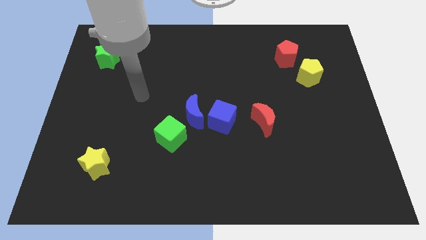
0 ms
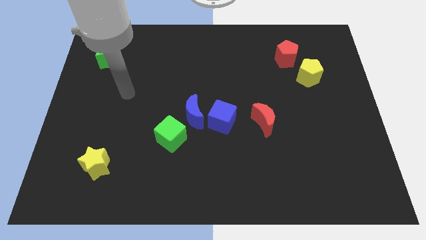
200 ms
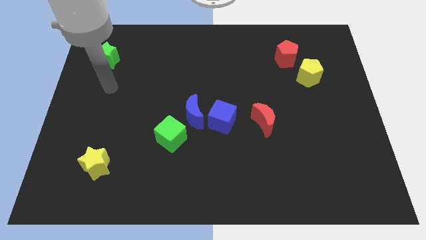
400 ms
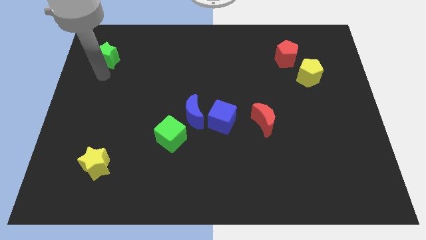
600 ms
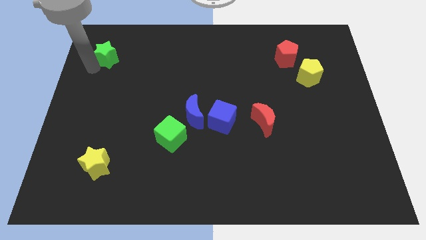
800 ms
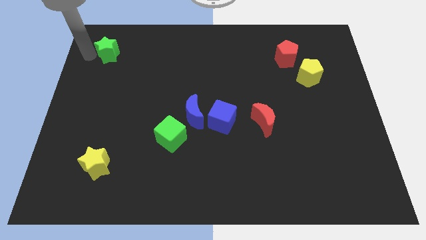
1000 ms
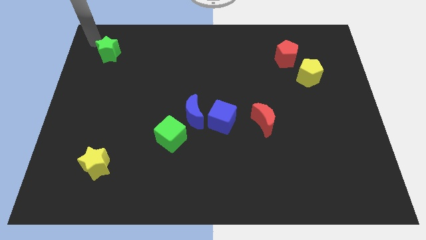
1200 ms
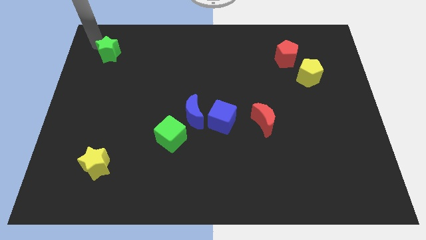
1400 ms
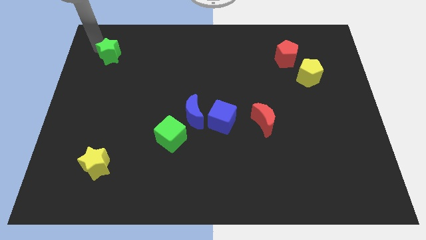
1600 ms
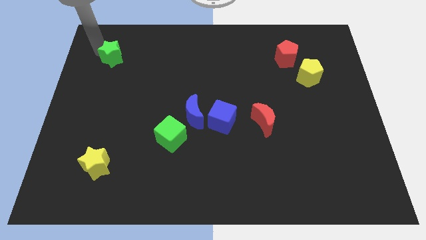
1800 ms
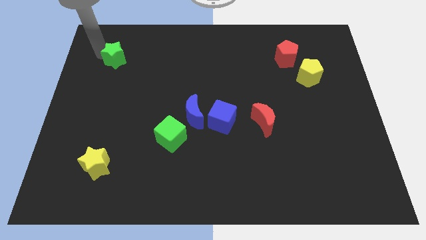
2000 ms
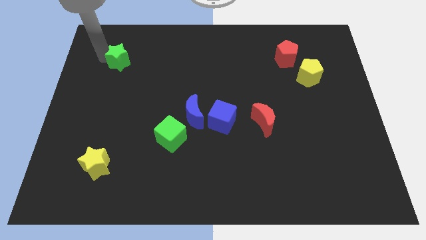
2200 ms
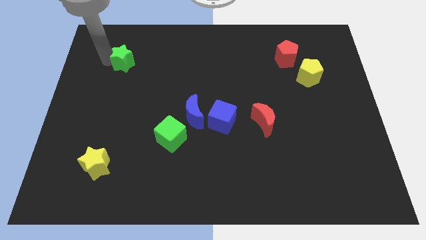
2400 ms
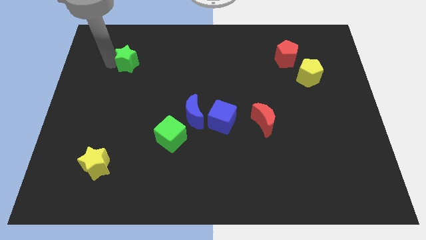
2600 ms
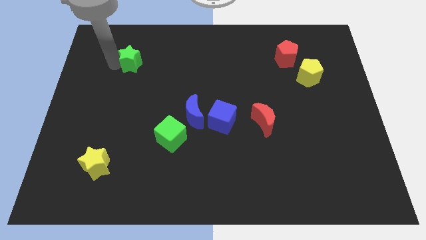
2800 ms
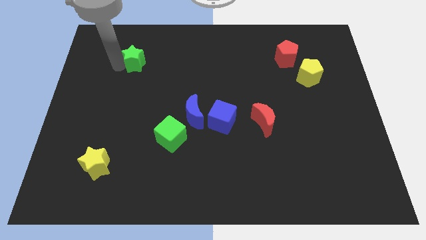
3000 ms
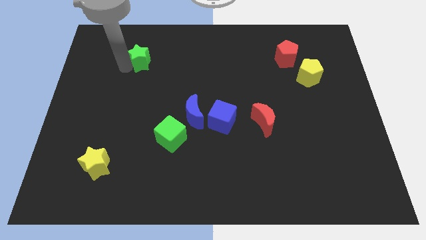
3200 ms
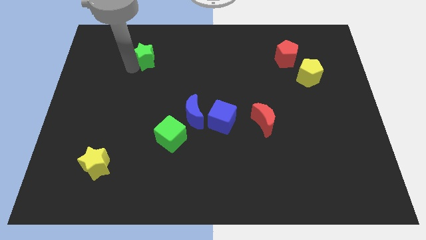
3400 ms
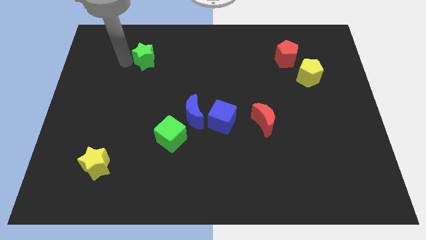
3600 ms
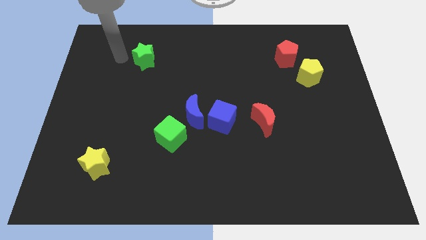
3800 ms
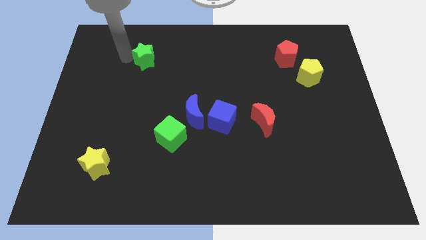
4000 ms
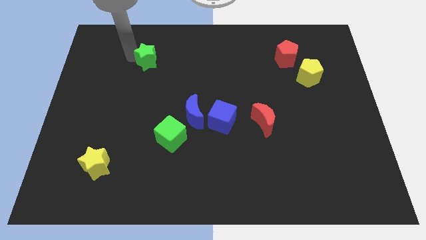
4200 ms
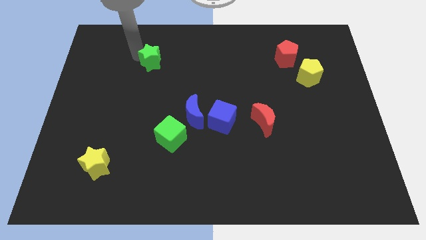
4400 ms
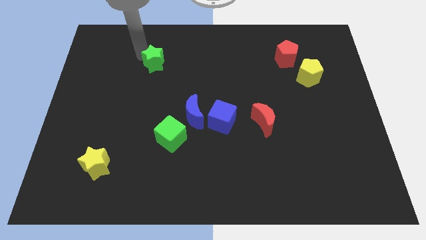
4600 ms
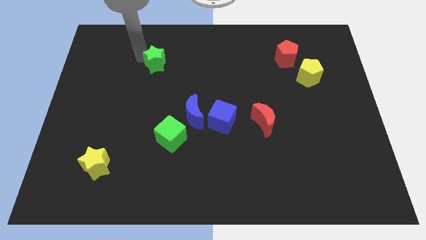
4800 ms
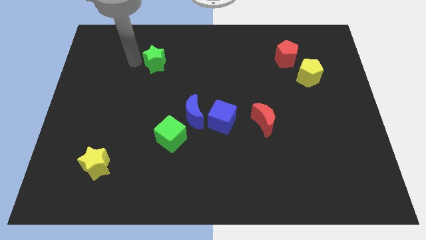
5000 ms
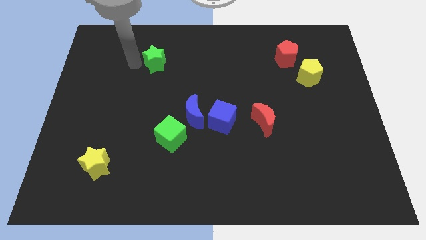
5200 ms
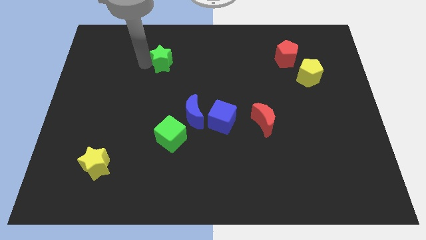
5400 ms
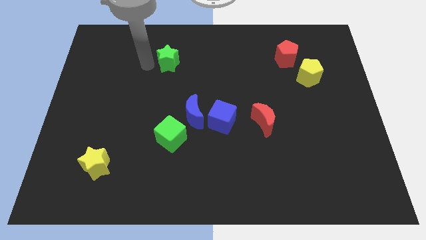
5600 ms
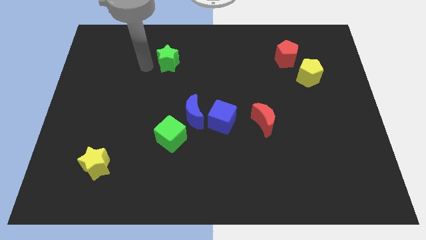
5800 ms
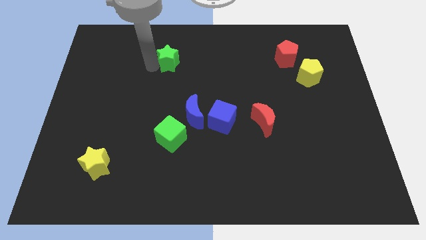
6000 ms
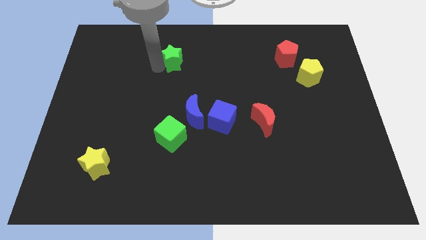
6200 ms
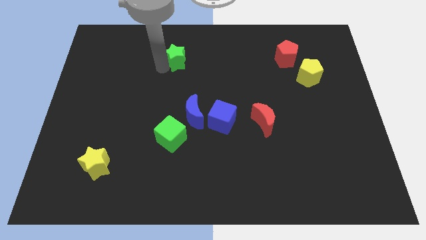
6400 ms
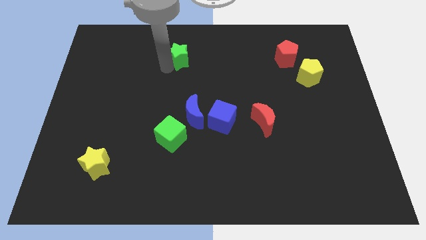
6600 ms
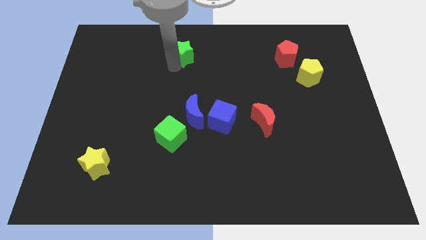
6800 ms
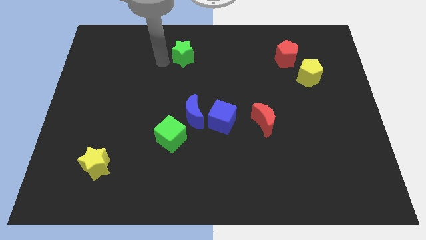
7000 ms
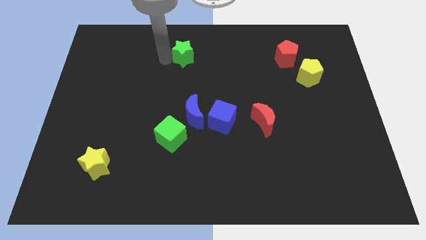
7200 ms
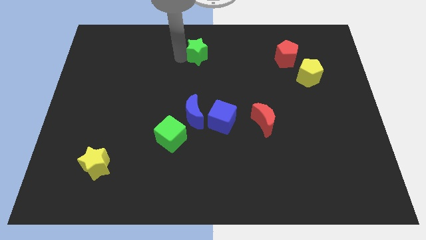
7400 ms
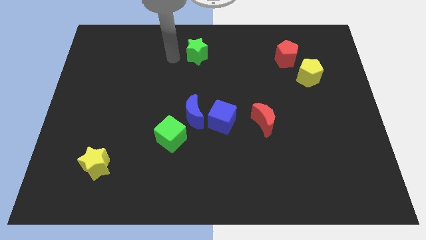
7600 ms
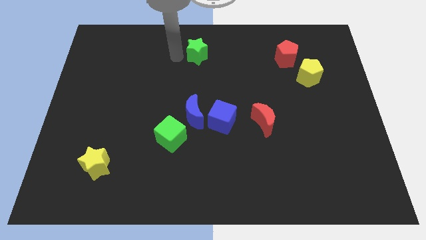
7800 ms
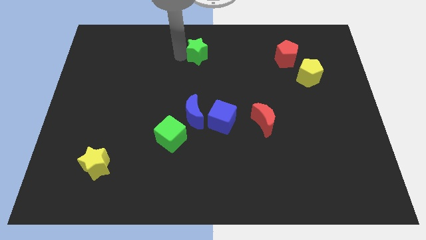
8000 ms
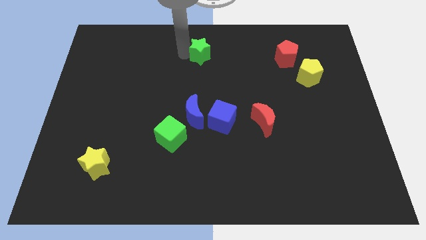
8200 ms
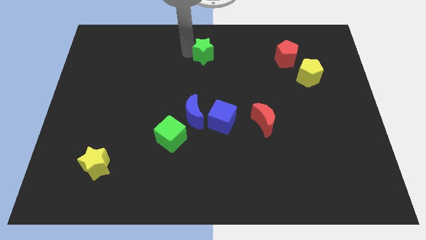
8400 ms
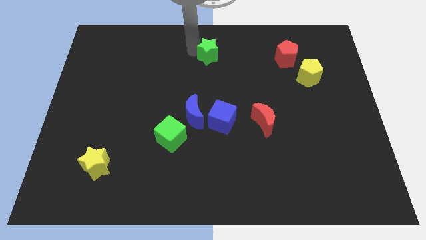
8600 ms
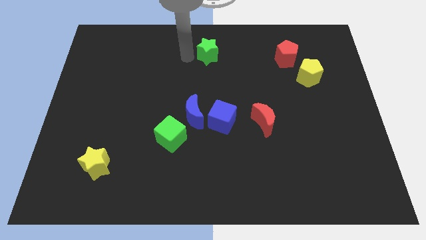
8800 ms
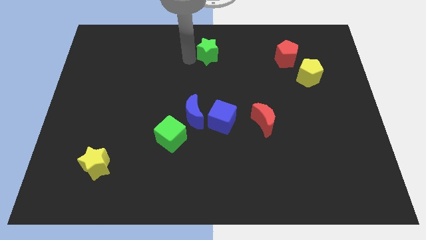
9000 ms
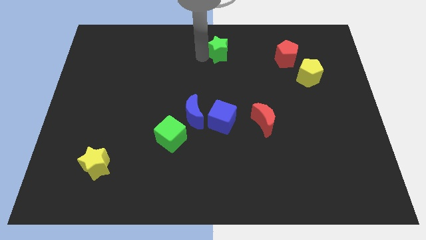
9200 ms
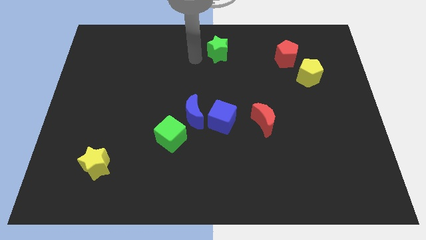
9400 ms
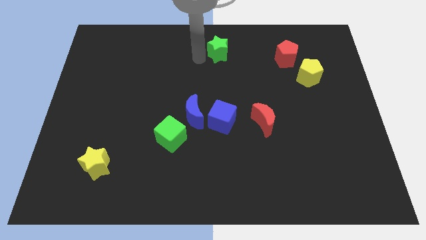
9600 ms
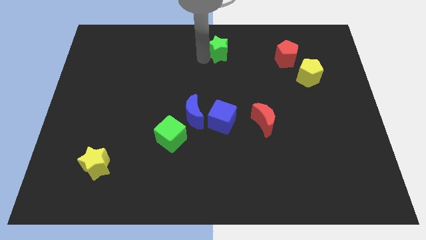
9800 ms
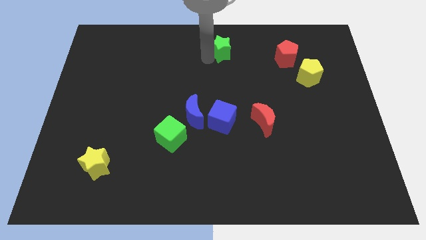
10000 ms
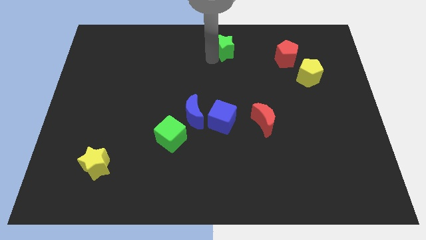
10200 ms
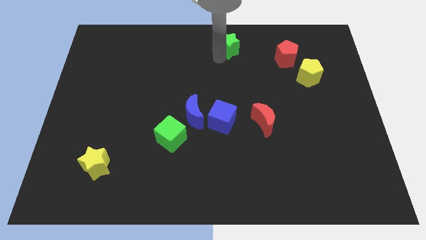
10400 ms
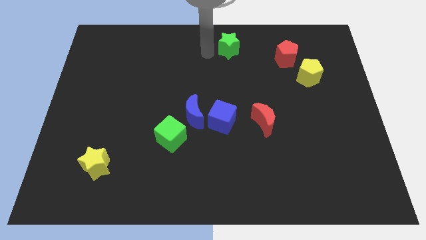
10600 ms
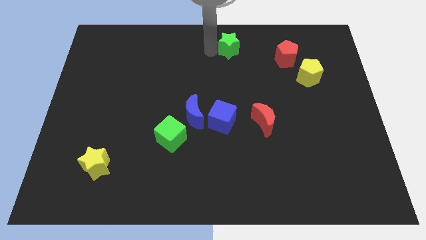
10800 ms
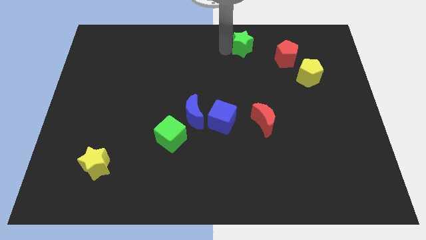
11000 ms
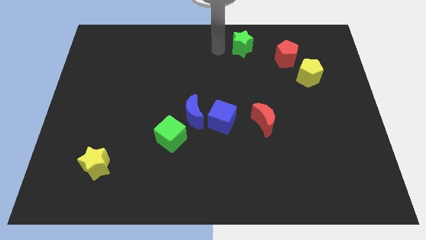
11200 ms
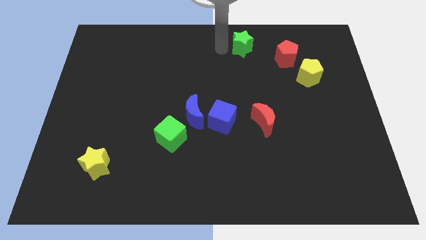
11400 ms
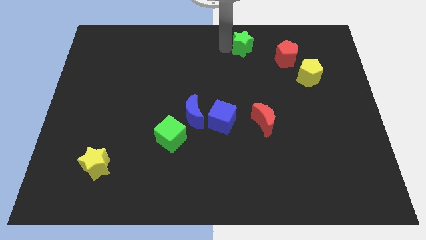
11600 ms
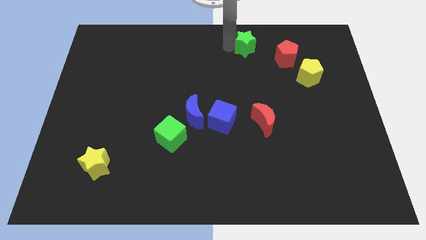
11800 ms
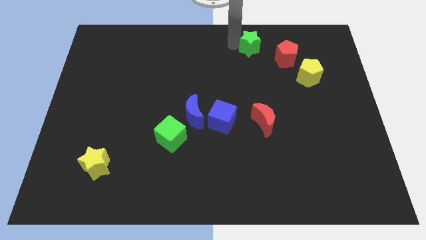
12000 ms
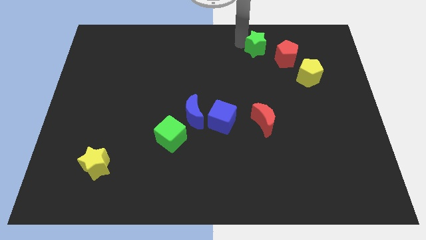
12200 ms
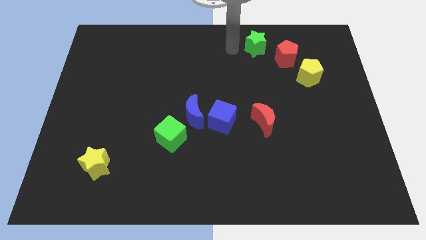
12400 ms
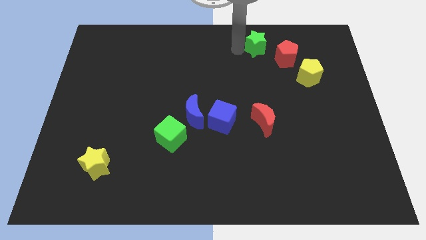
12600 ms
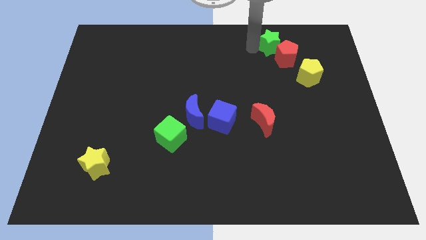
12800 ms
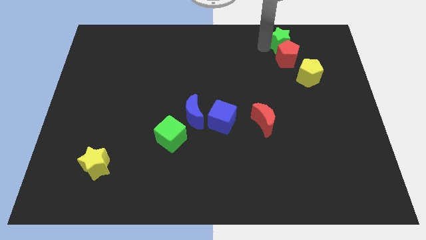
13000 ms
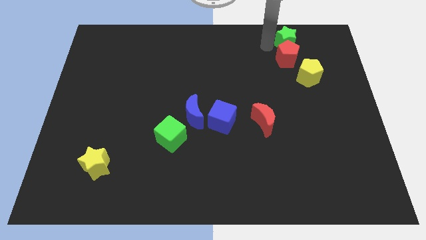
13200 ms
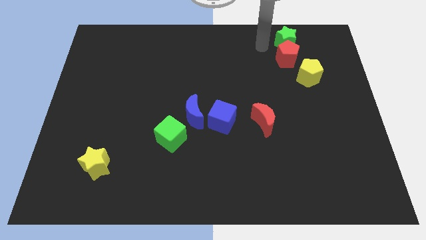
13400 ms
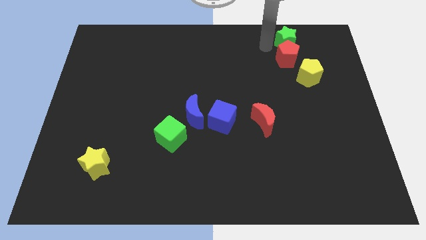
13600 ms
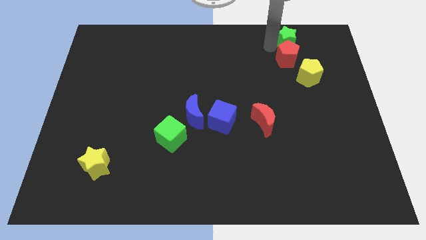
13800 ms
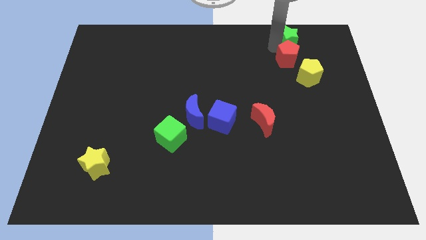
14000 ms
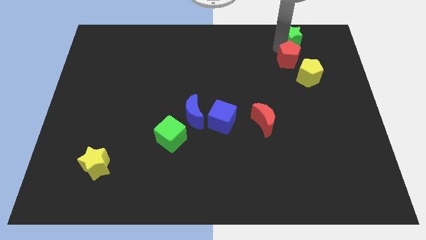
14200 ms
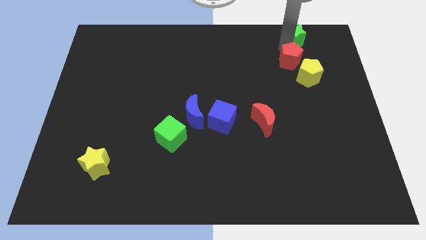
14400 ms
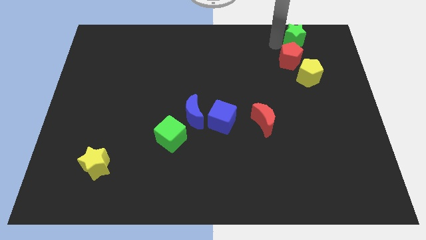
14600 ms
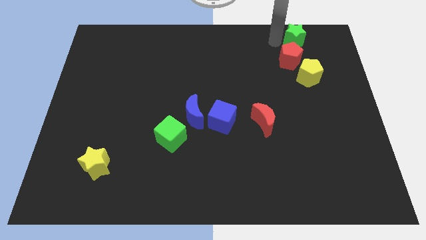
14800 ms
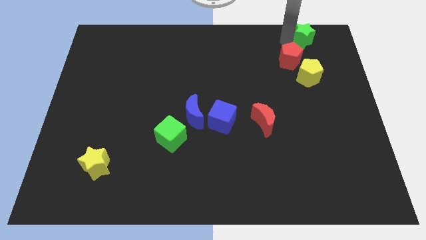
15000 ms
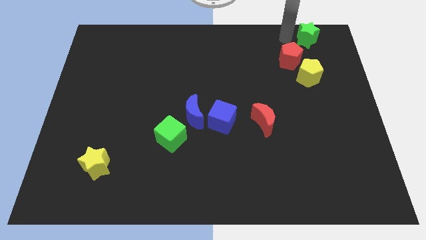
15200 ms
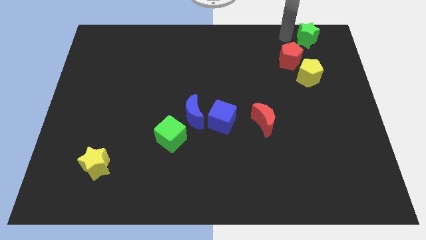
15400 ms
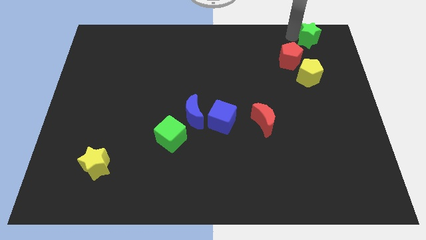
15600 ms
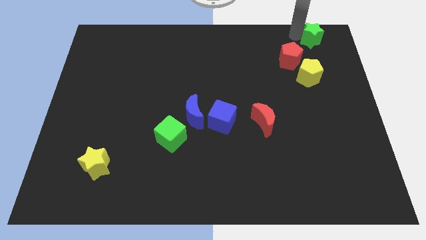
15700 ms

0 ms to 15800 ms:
put the green star to the top right
